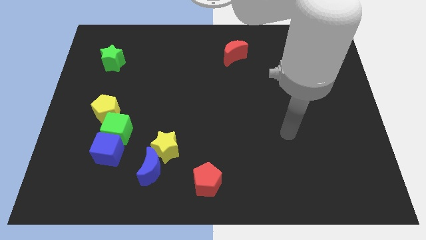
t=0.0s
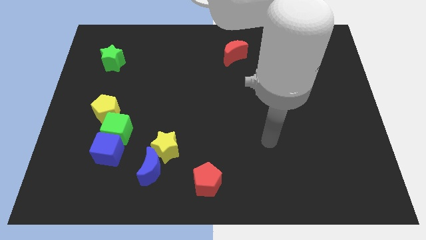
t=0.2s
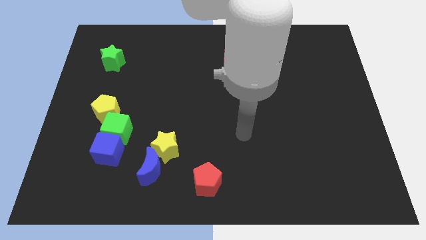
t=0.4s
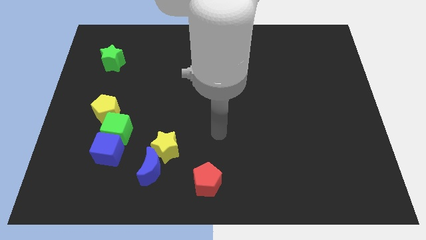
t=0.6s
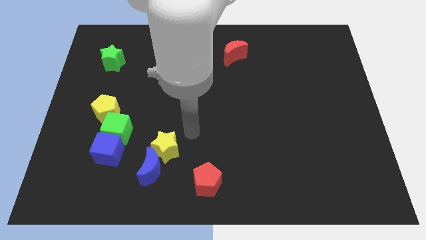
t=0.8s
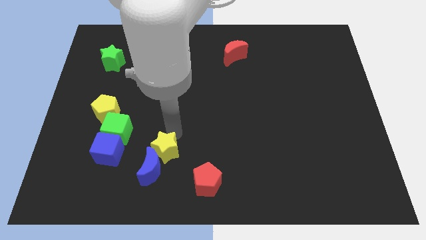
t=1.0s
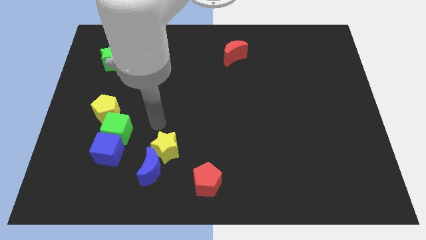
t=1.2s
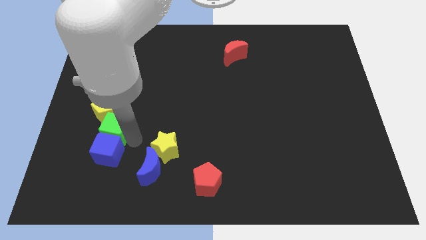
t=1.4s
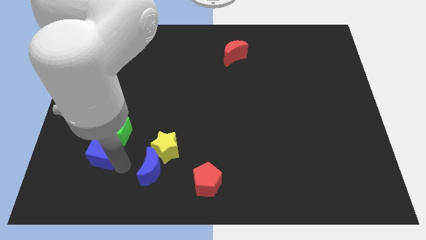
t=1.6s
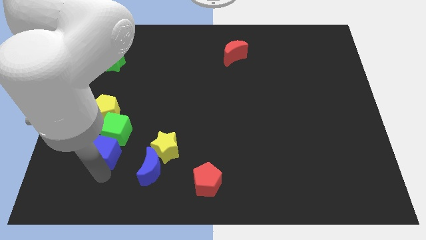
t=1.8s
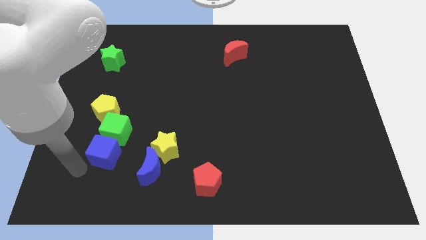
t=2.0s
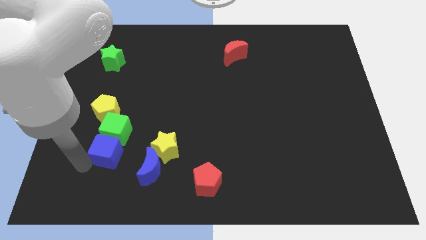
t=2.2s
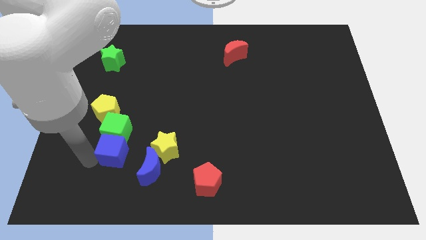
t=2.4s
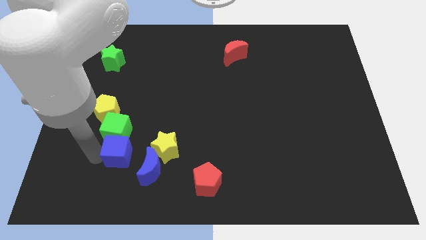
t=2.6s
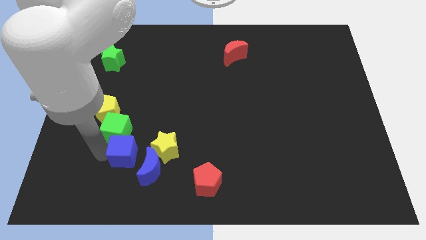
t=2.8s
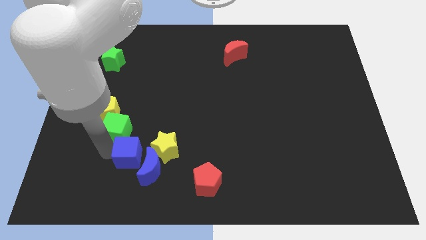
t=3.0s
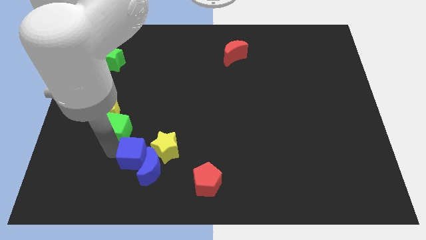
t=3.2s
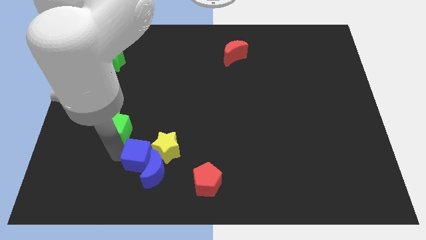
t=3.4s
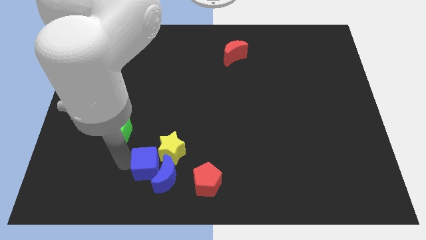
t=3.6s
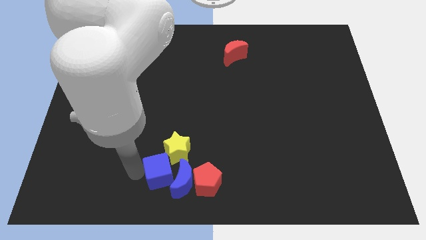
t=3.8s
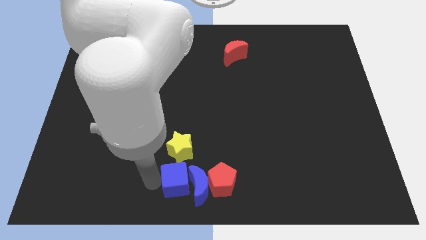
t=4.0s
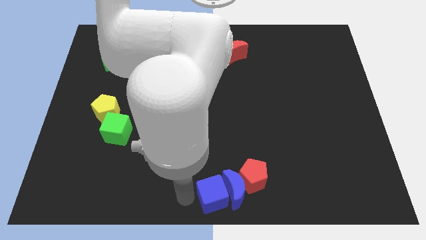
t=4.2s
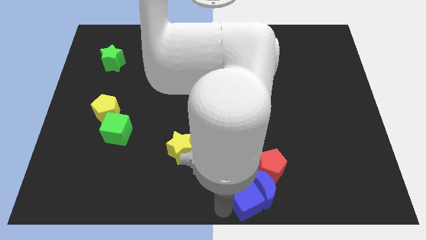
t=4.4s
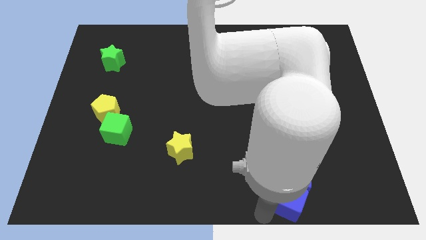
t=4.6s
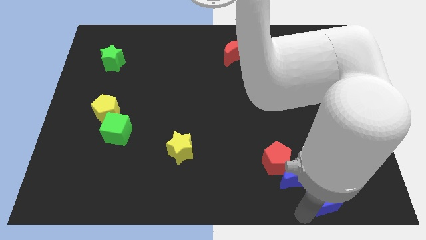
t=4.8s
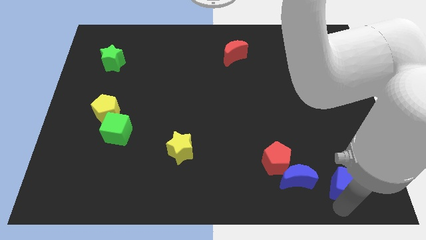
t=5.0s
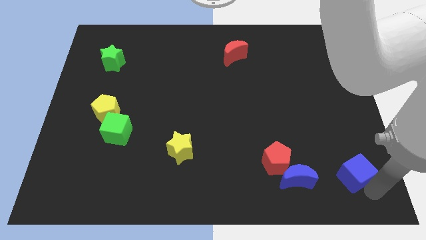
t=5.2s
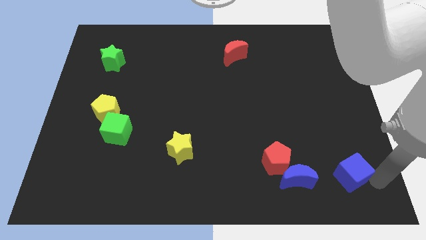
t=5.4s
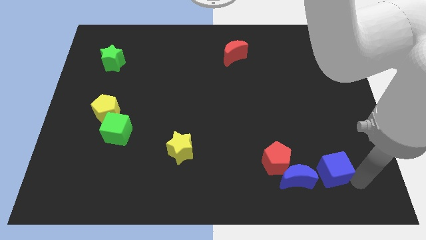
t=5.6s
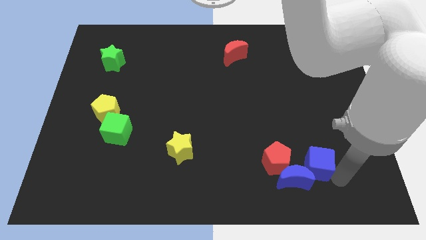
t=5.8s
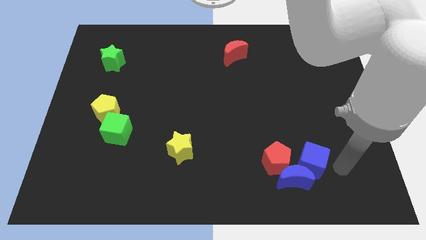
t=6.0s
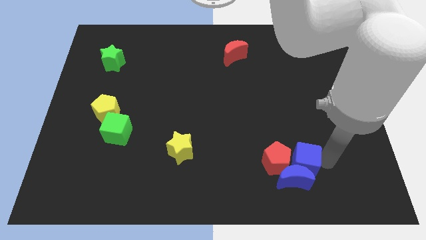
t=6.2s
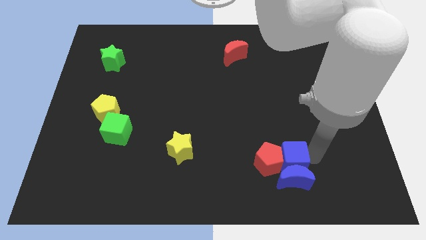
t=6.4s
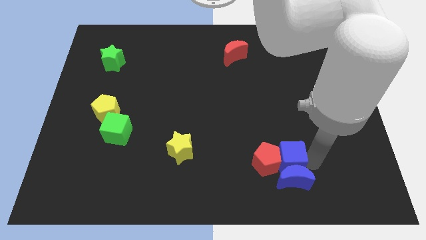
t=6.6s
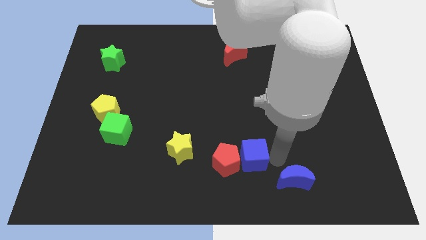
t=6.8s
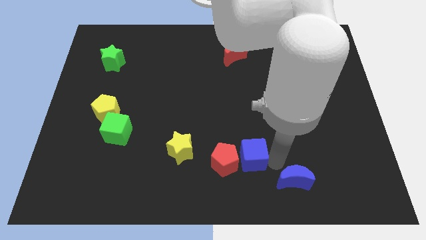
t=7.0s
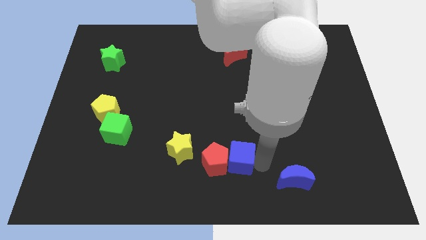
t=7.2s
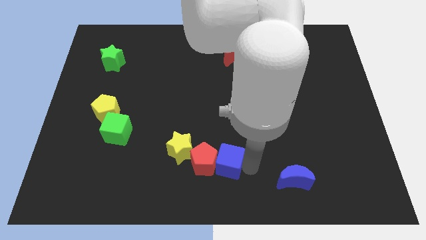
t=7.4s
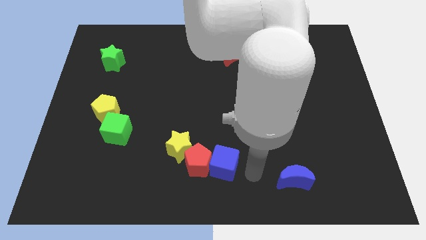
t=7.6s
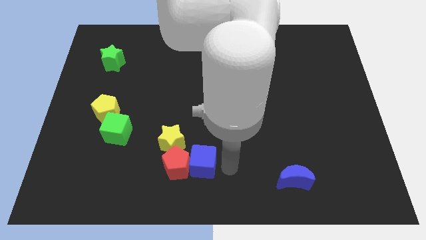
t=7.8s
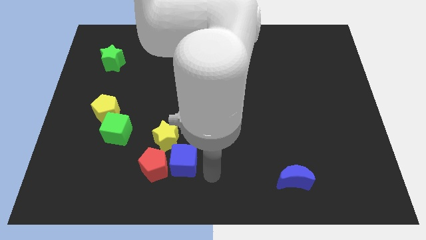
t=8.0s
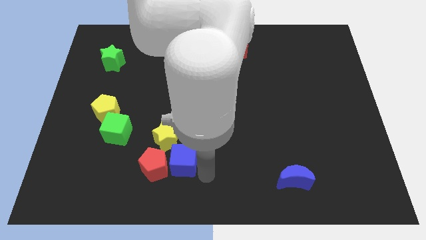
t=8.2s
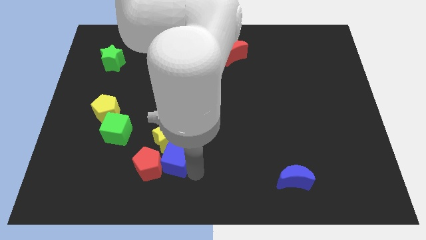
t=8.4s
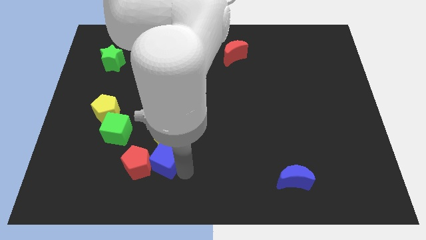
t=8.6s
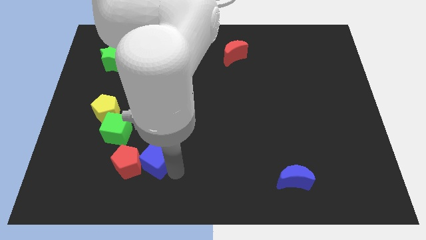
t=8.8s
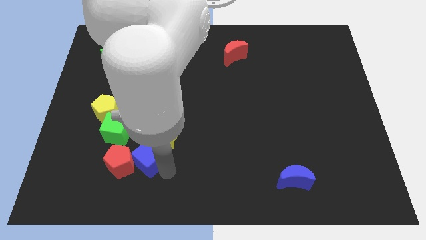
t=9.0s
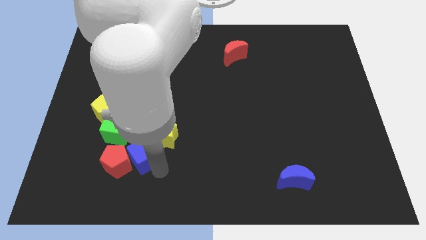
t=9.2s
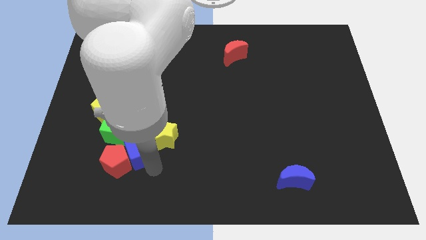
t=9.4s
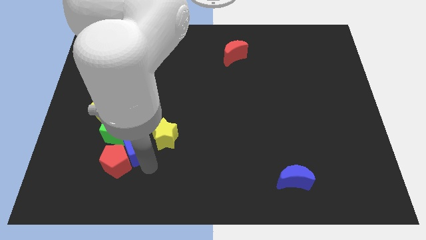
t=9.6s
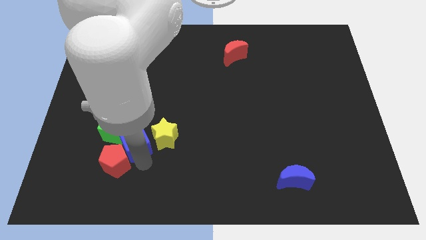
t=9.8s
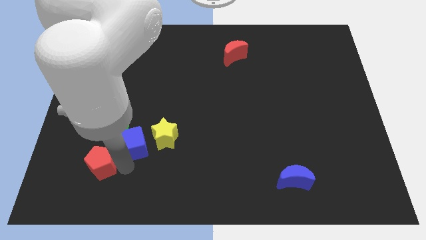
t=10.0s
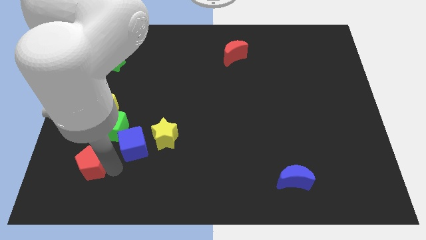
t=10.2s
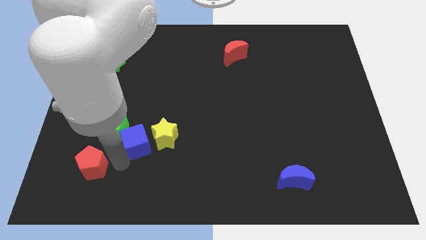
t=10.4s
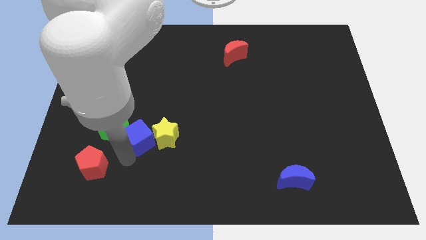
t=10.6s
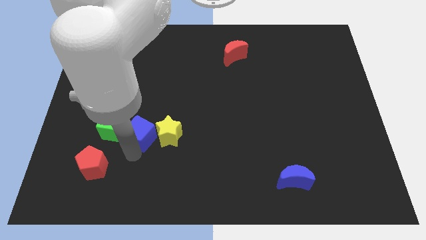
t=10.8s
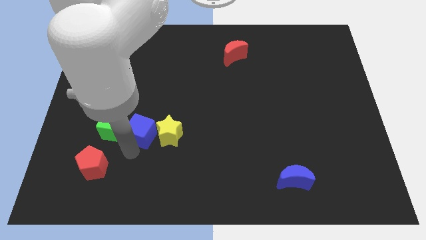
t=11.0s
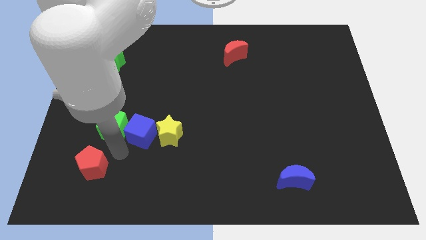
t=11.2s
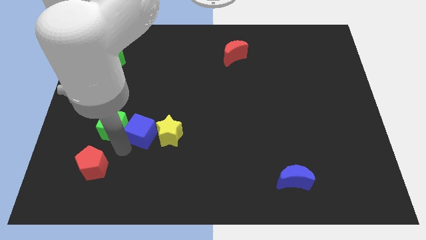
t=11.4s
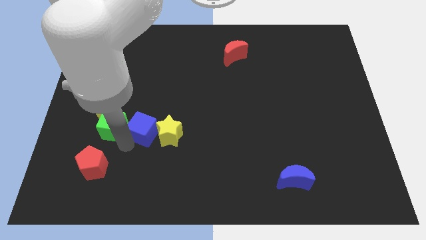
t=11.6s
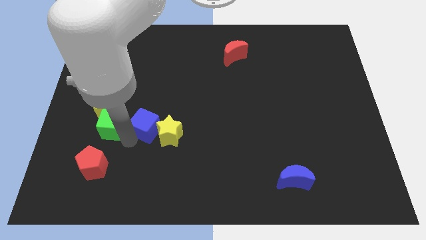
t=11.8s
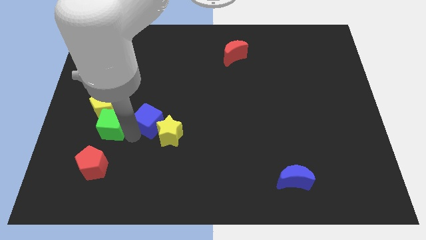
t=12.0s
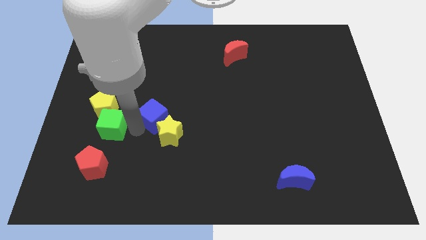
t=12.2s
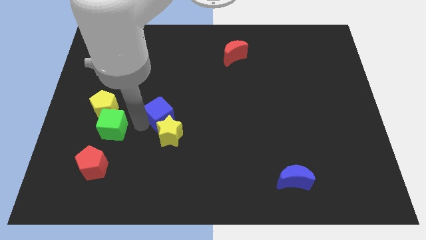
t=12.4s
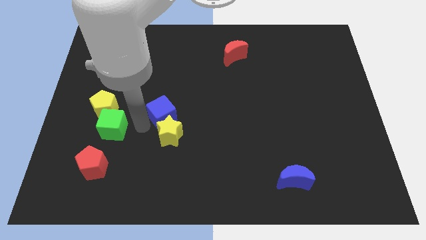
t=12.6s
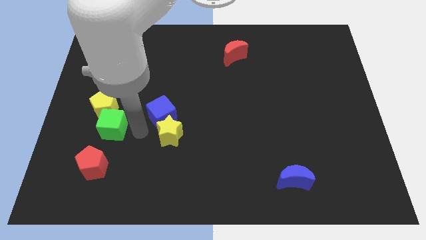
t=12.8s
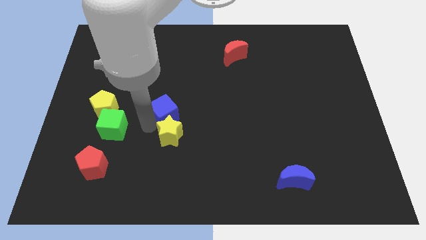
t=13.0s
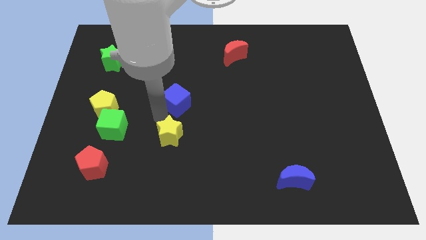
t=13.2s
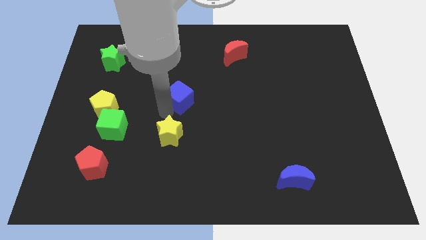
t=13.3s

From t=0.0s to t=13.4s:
slide the blue cube upwards and to the right diagonally

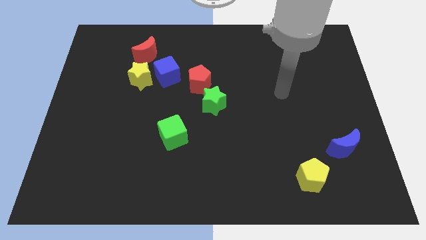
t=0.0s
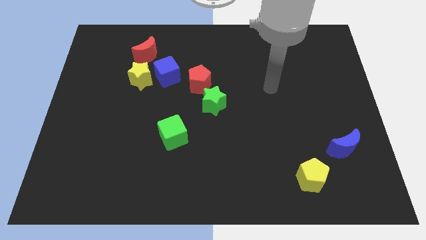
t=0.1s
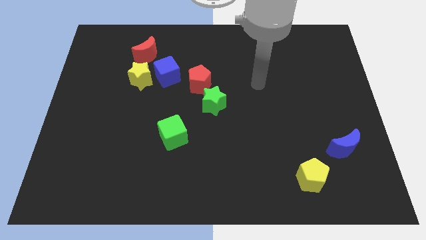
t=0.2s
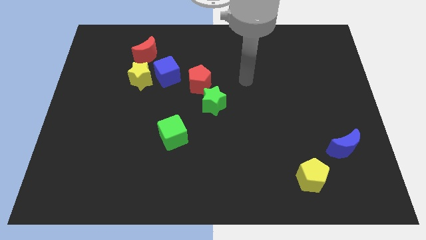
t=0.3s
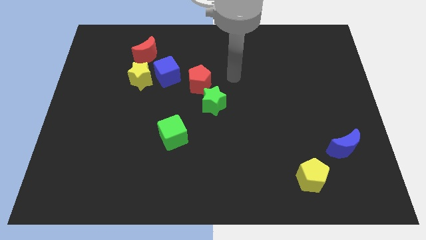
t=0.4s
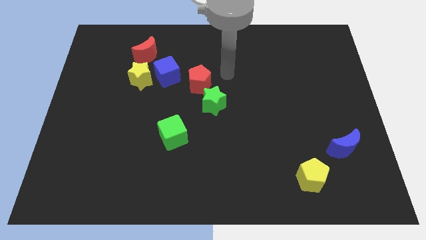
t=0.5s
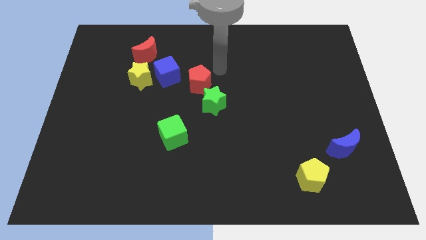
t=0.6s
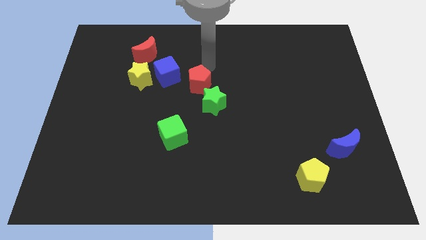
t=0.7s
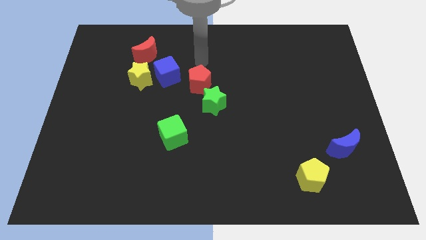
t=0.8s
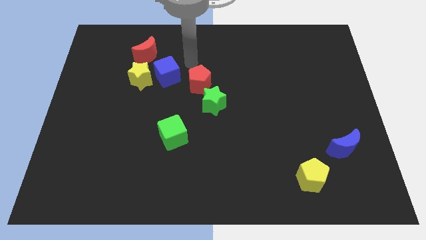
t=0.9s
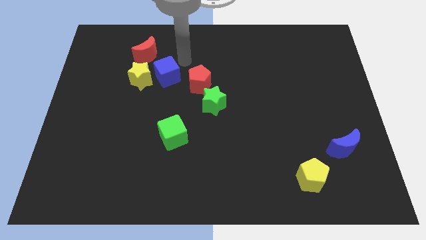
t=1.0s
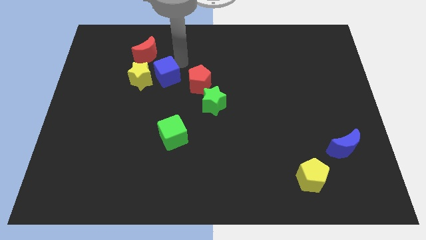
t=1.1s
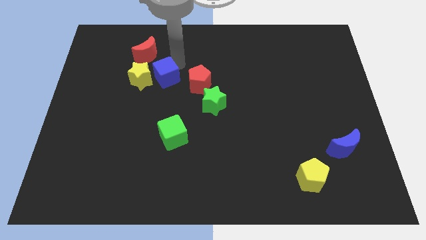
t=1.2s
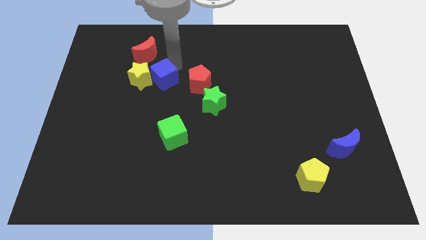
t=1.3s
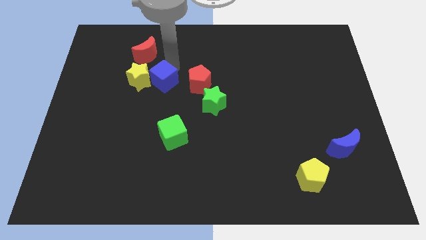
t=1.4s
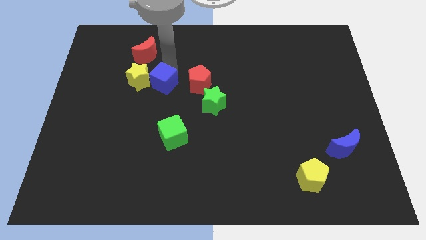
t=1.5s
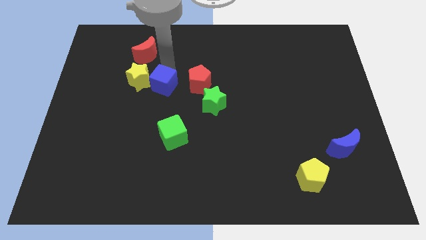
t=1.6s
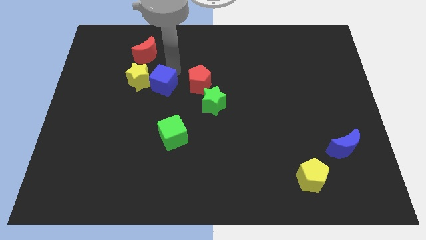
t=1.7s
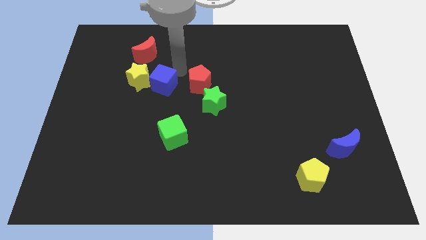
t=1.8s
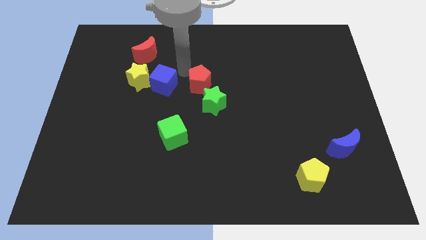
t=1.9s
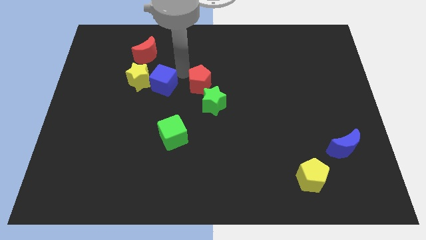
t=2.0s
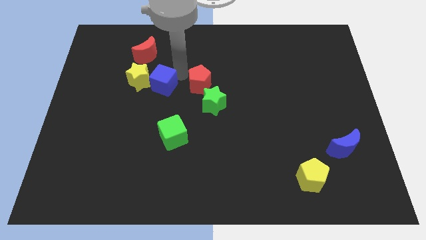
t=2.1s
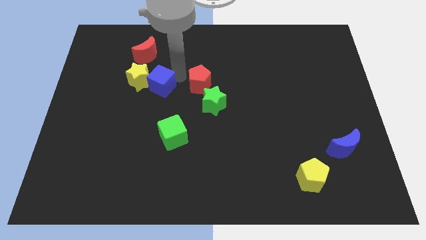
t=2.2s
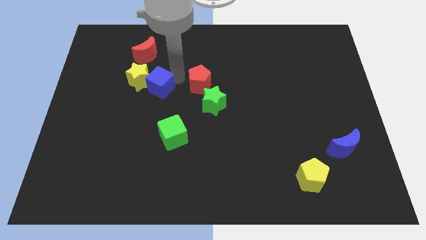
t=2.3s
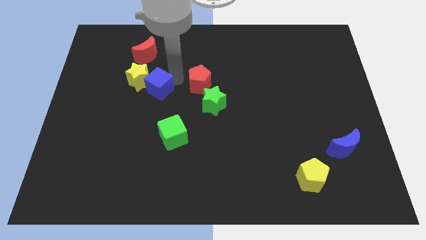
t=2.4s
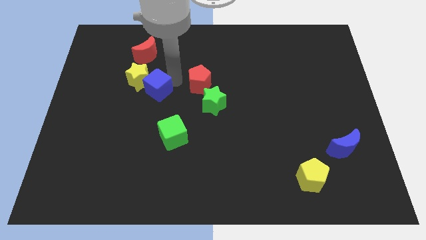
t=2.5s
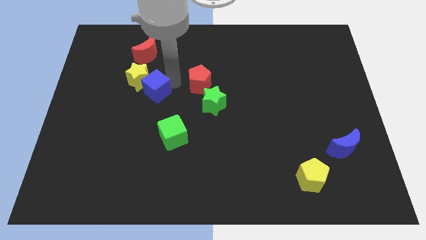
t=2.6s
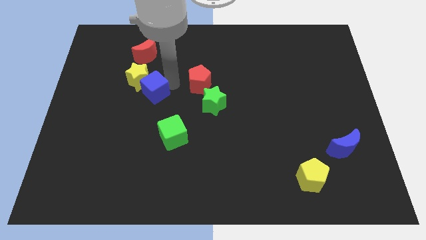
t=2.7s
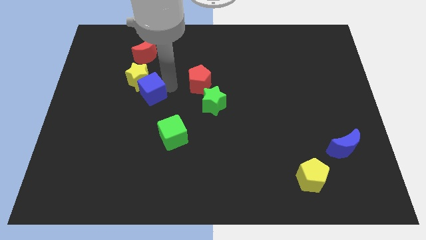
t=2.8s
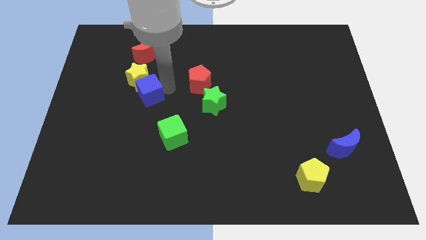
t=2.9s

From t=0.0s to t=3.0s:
move the blue cube a bit downwards and to the left
